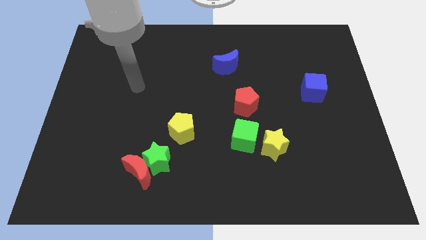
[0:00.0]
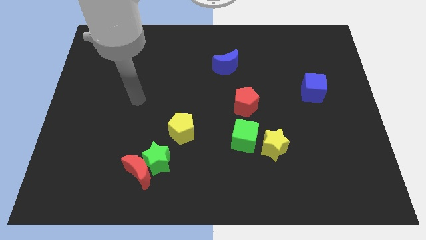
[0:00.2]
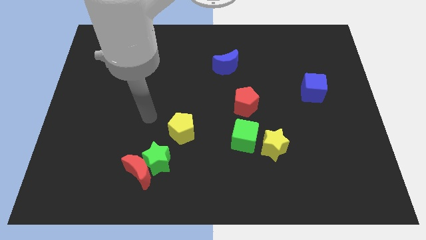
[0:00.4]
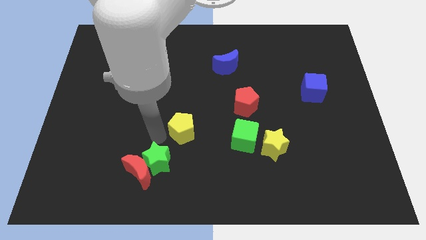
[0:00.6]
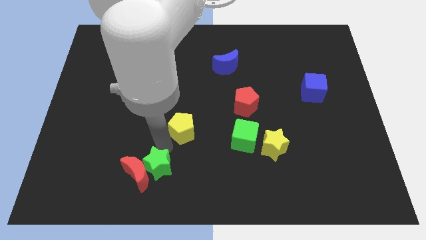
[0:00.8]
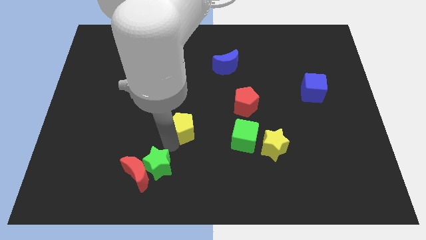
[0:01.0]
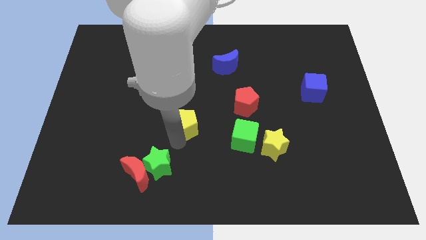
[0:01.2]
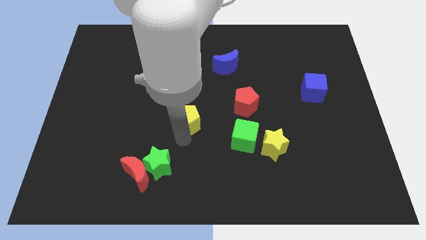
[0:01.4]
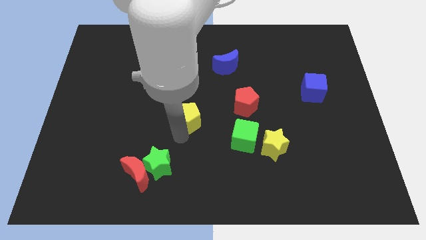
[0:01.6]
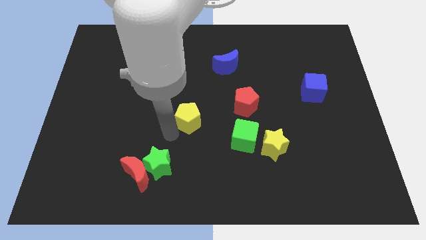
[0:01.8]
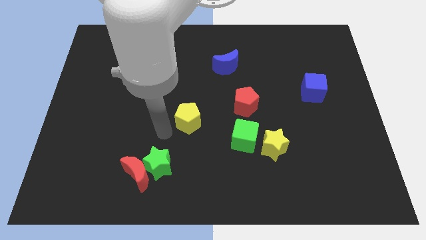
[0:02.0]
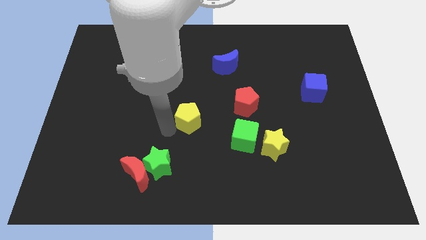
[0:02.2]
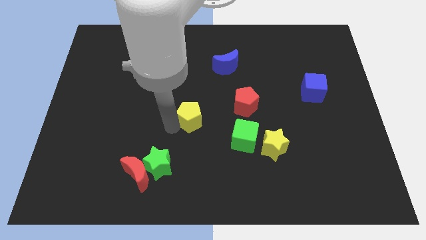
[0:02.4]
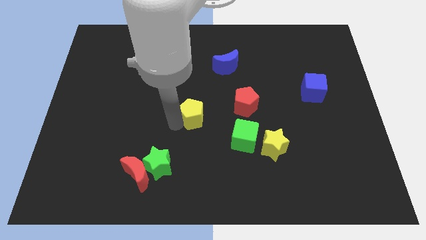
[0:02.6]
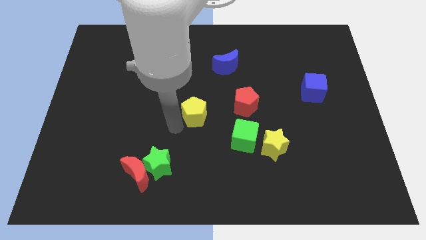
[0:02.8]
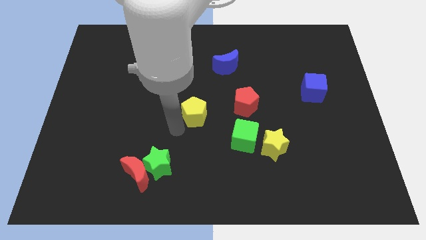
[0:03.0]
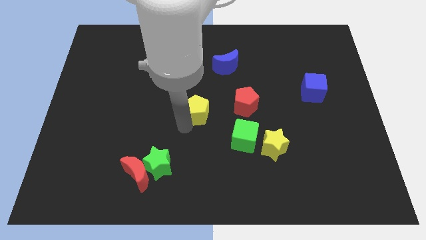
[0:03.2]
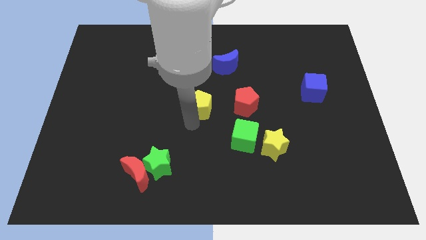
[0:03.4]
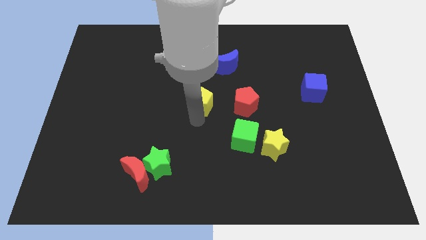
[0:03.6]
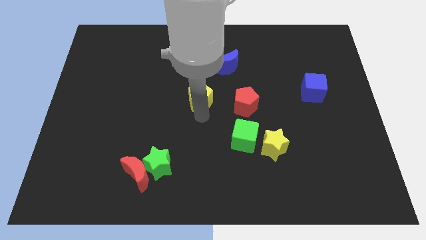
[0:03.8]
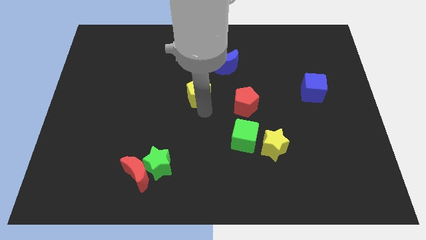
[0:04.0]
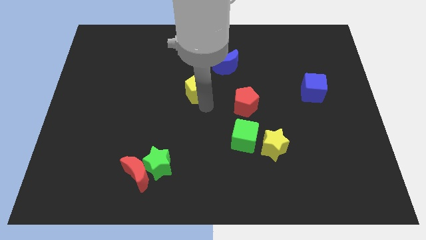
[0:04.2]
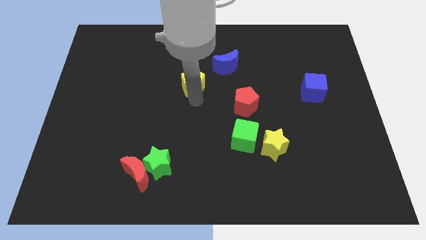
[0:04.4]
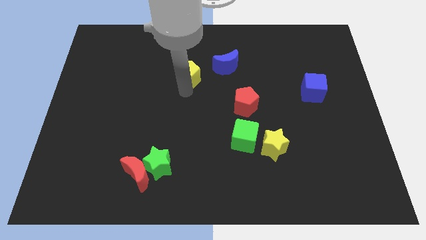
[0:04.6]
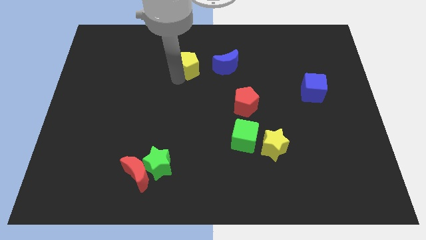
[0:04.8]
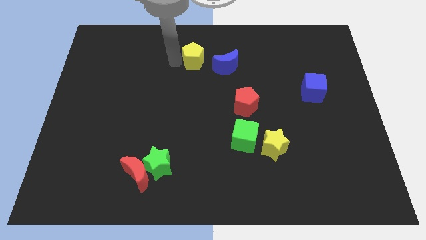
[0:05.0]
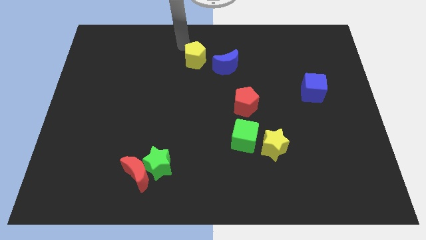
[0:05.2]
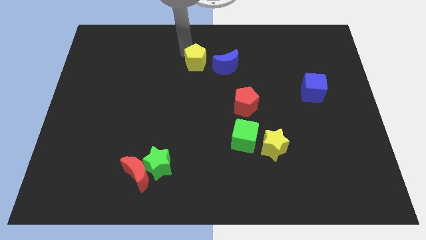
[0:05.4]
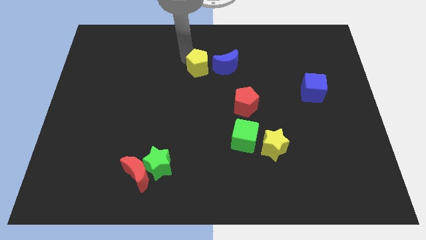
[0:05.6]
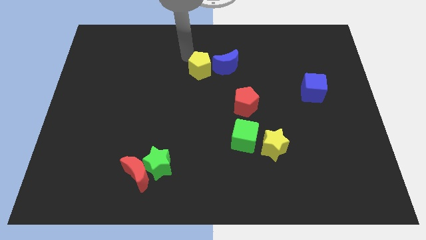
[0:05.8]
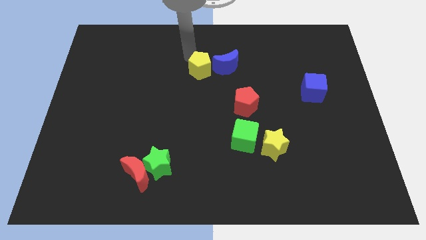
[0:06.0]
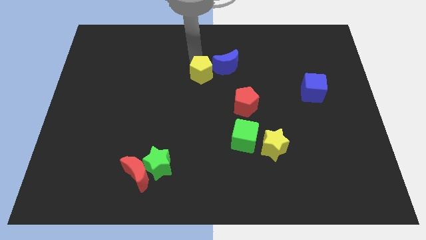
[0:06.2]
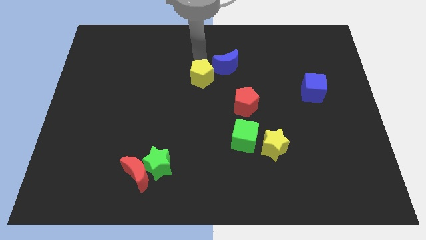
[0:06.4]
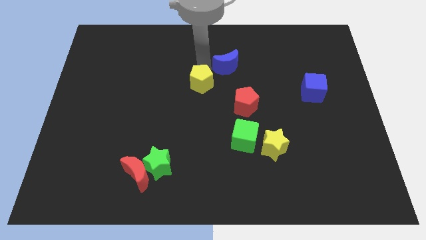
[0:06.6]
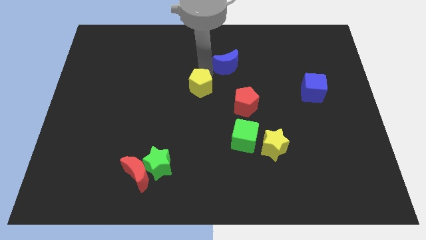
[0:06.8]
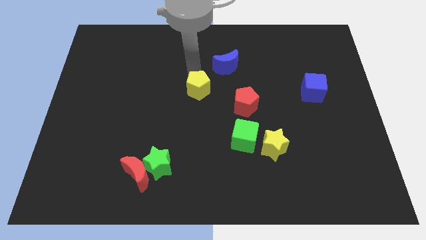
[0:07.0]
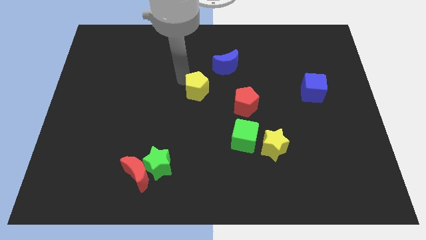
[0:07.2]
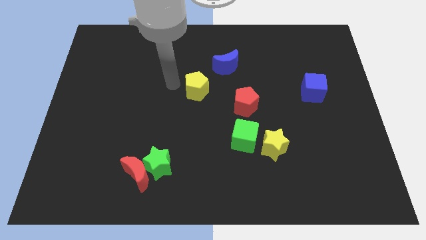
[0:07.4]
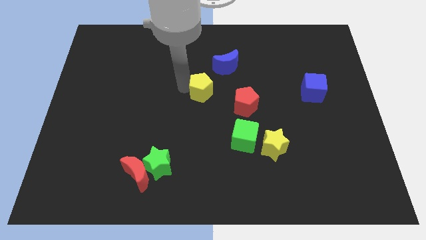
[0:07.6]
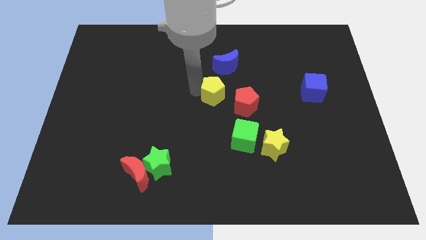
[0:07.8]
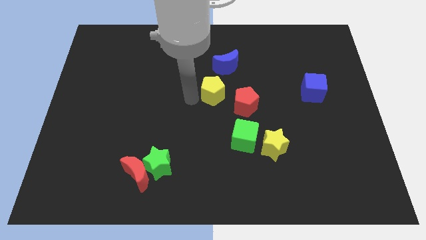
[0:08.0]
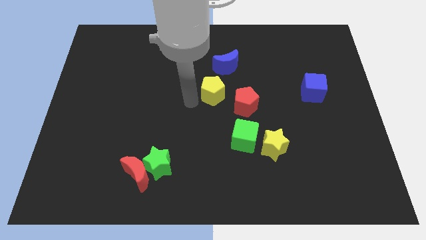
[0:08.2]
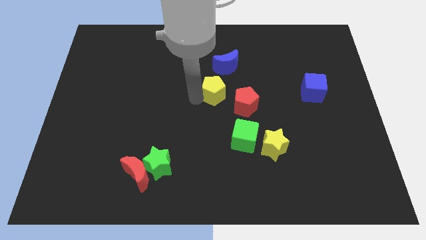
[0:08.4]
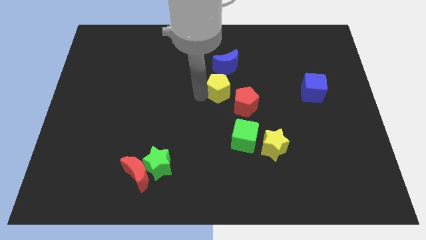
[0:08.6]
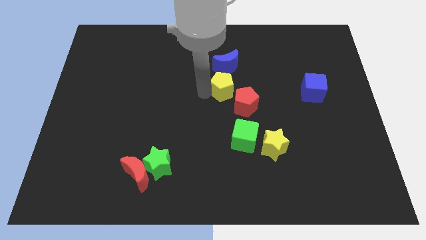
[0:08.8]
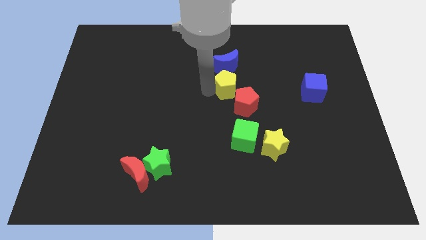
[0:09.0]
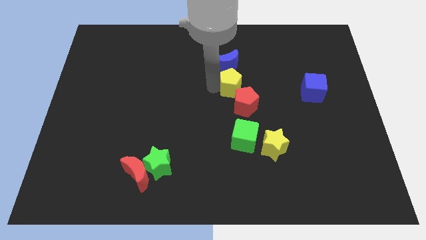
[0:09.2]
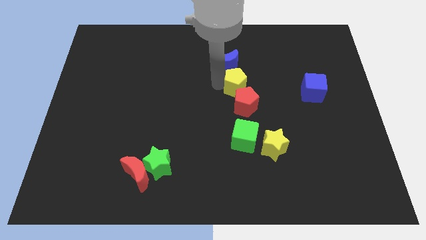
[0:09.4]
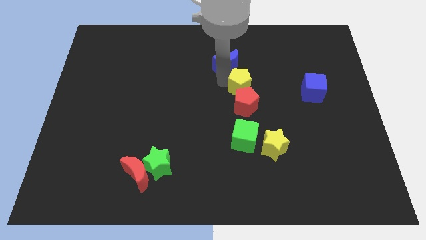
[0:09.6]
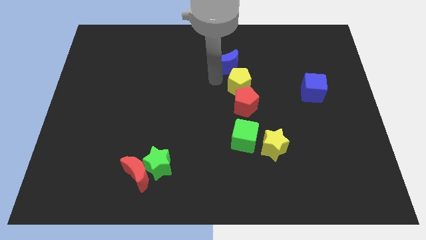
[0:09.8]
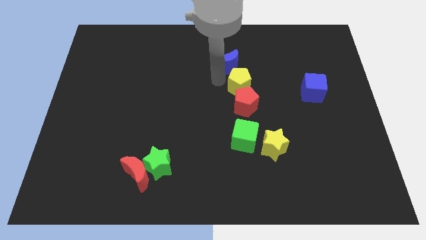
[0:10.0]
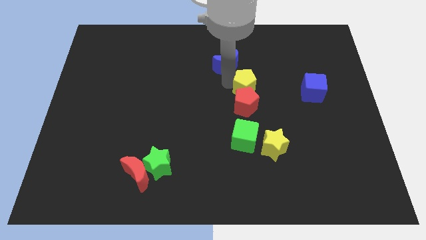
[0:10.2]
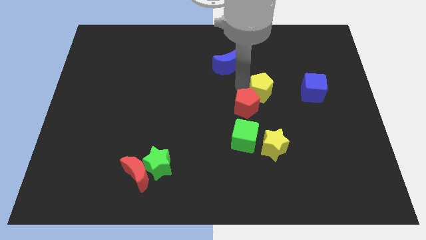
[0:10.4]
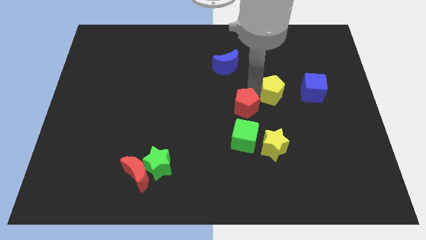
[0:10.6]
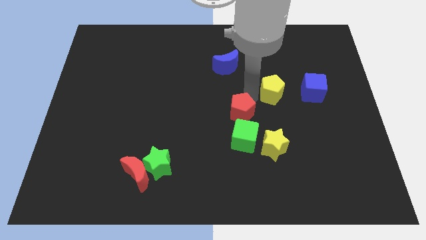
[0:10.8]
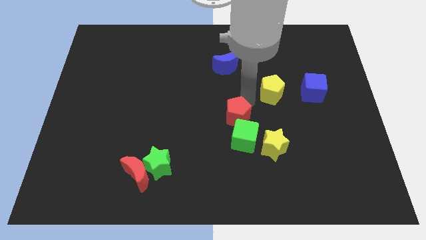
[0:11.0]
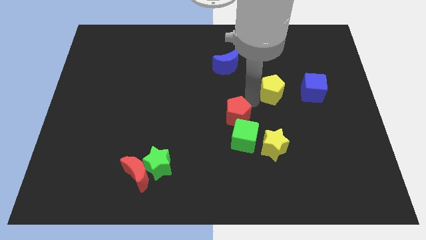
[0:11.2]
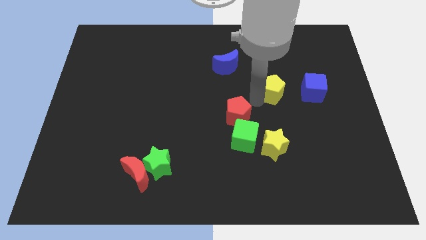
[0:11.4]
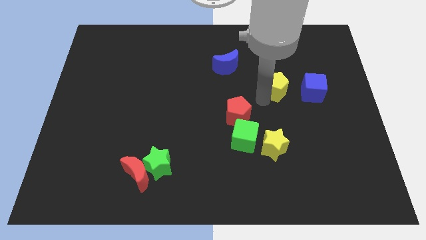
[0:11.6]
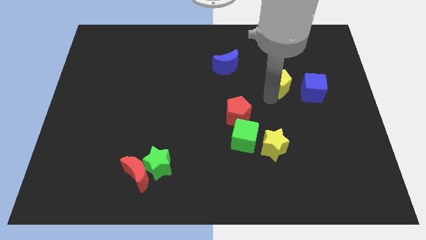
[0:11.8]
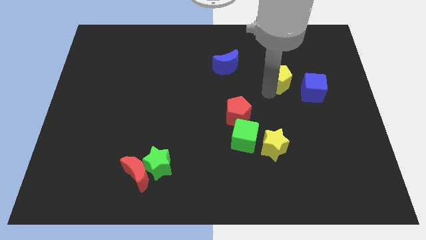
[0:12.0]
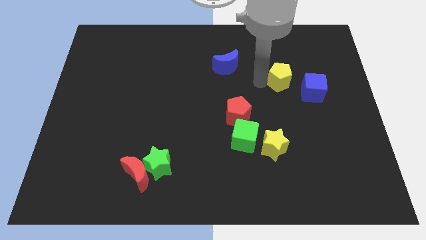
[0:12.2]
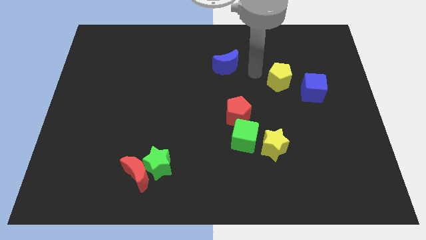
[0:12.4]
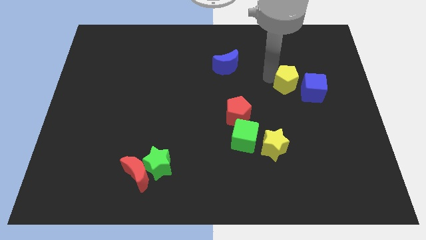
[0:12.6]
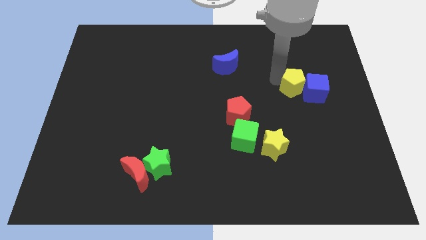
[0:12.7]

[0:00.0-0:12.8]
push the yellow pentagon close to the blue cube

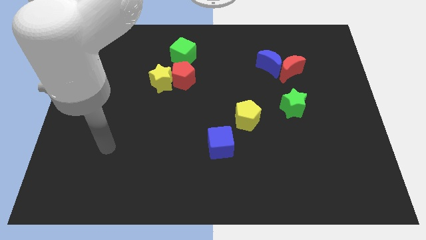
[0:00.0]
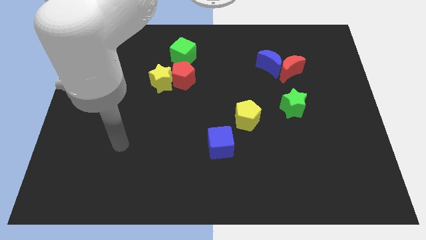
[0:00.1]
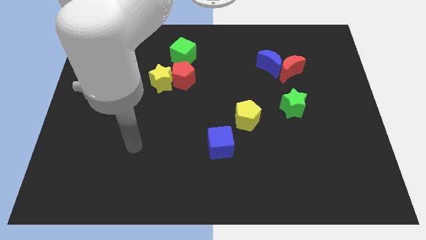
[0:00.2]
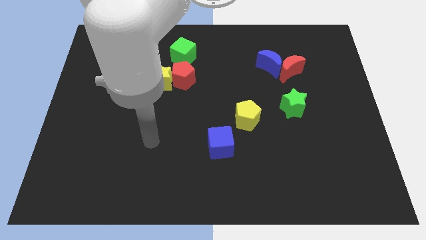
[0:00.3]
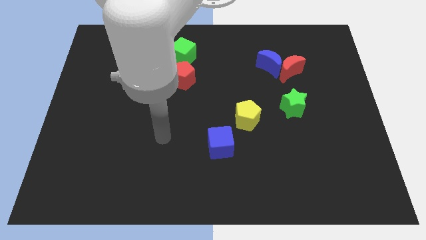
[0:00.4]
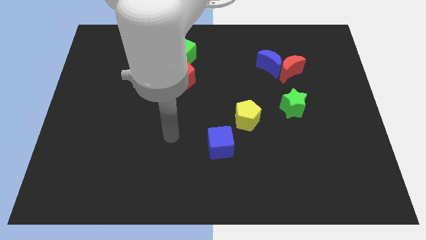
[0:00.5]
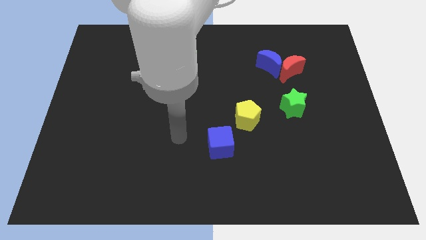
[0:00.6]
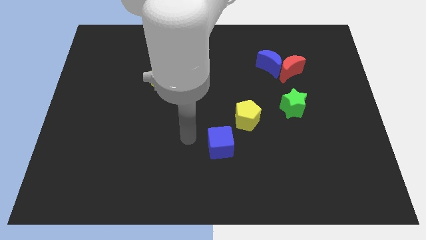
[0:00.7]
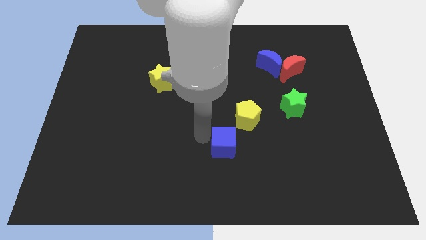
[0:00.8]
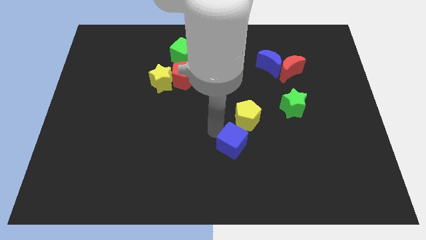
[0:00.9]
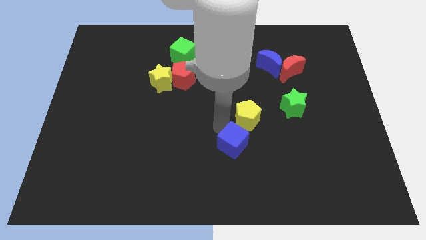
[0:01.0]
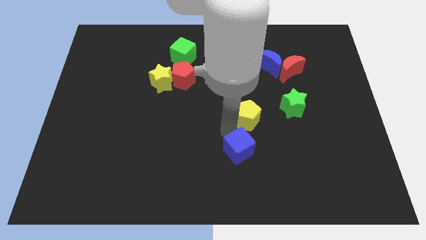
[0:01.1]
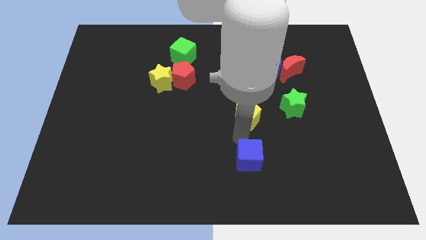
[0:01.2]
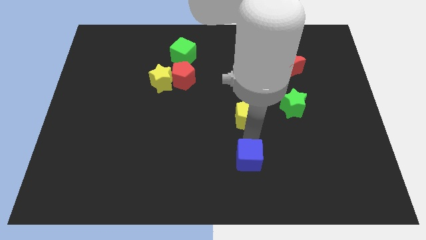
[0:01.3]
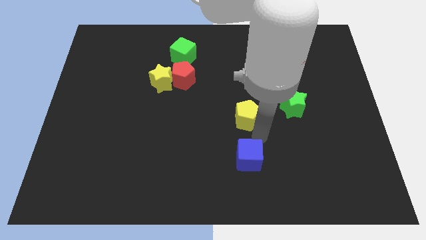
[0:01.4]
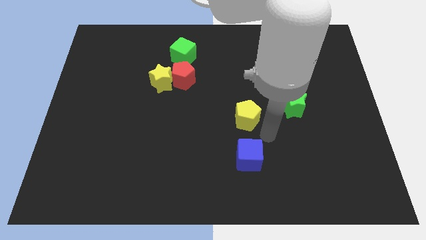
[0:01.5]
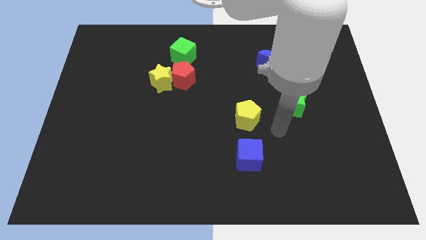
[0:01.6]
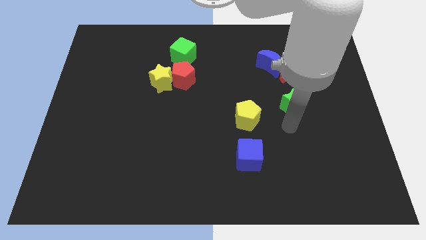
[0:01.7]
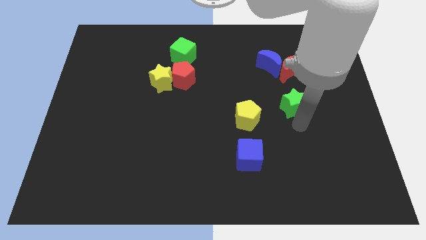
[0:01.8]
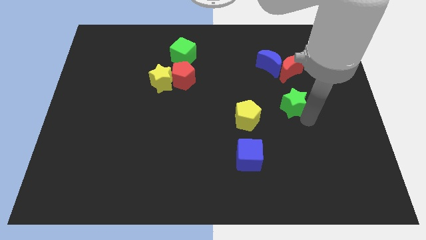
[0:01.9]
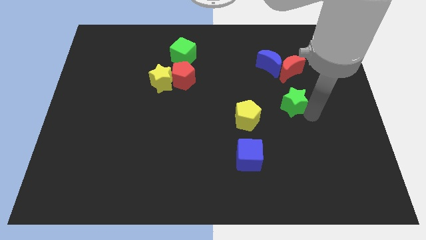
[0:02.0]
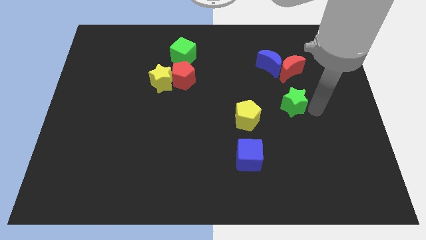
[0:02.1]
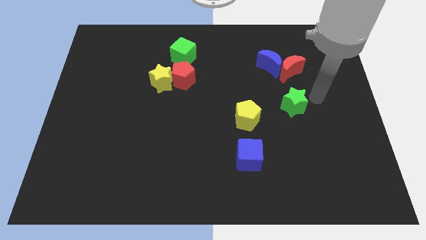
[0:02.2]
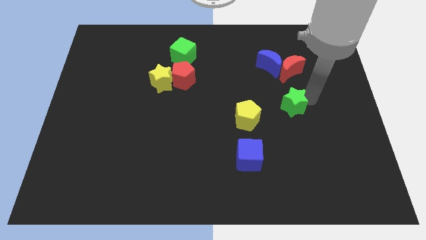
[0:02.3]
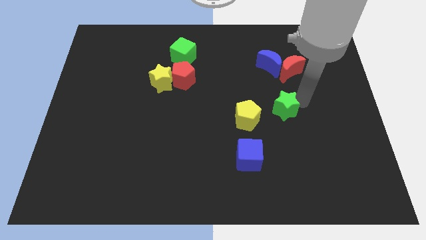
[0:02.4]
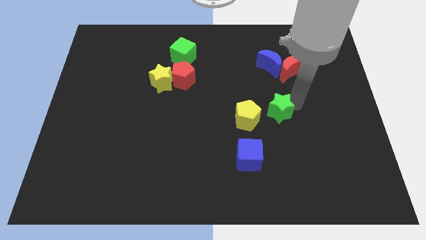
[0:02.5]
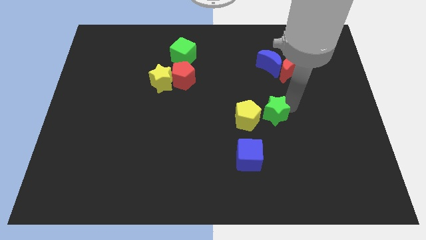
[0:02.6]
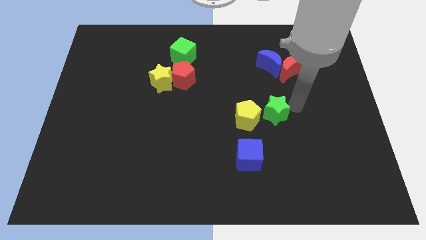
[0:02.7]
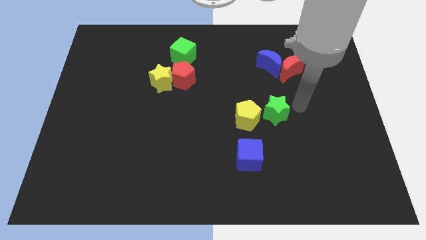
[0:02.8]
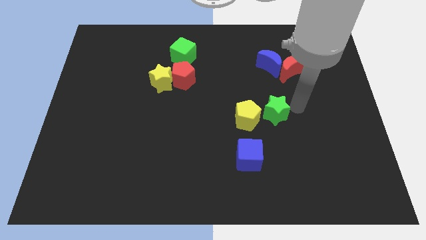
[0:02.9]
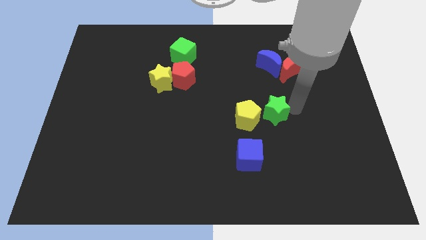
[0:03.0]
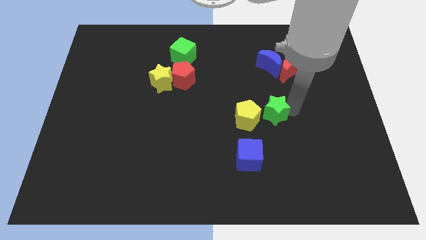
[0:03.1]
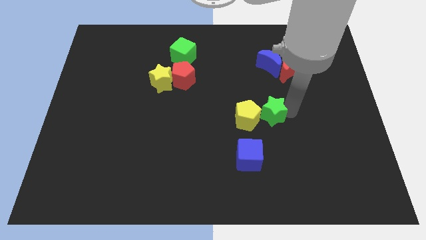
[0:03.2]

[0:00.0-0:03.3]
push the green star to the yellow pentagon
